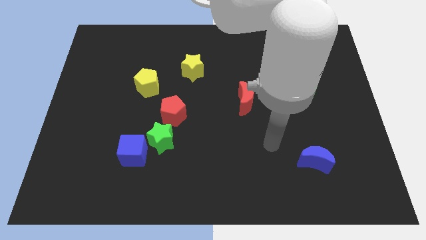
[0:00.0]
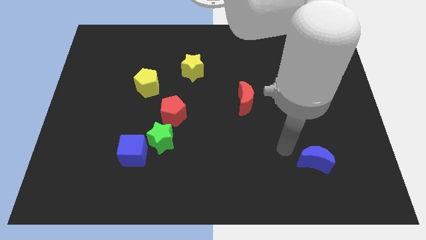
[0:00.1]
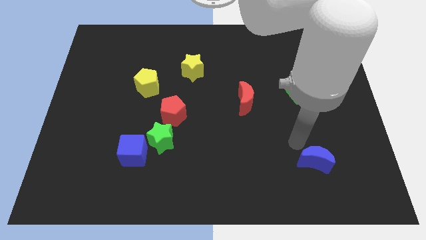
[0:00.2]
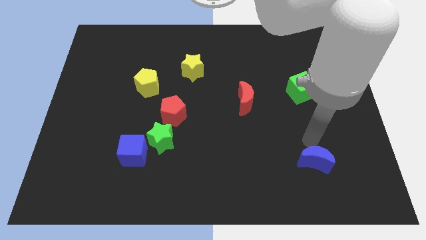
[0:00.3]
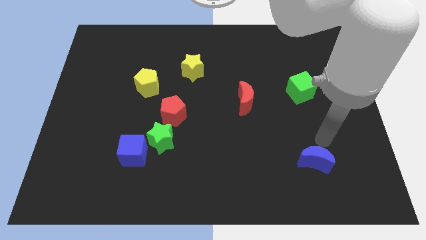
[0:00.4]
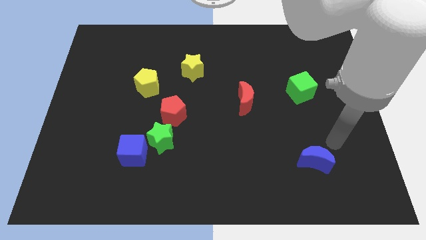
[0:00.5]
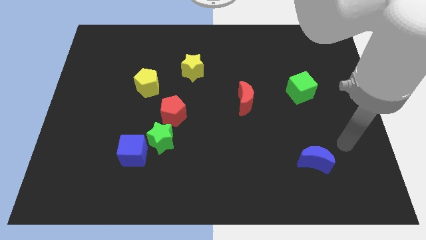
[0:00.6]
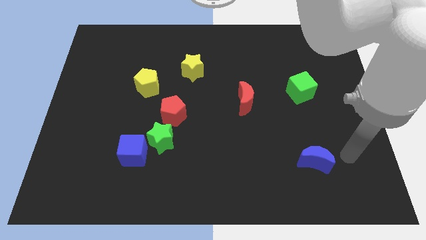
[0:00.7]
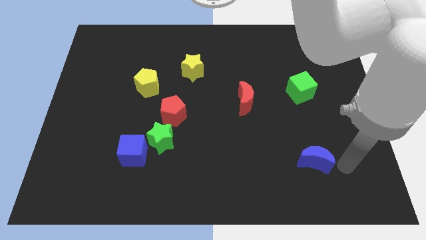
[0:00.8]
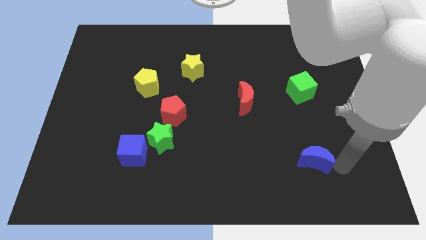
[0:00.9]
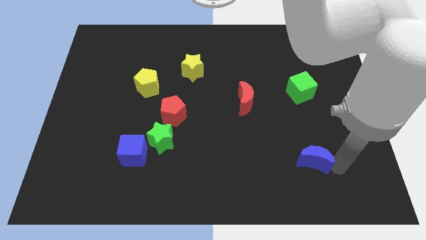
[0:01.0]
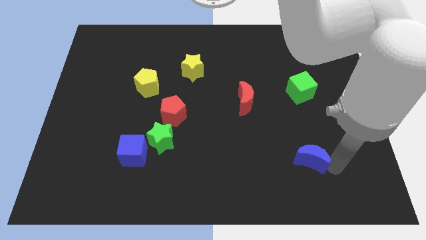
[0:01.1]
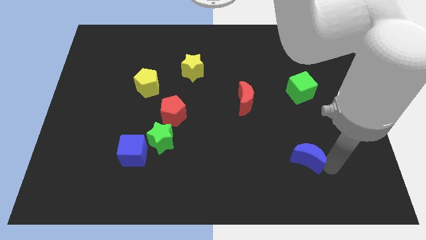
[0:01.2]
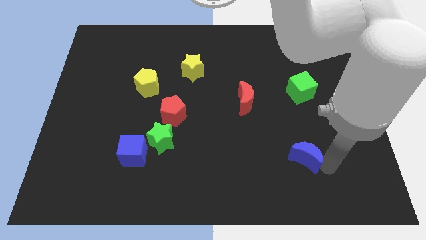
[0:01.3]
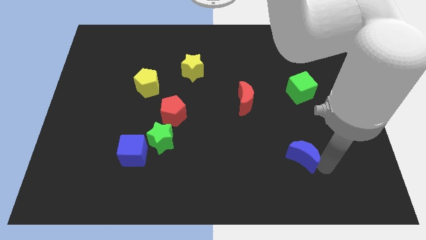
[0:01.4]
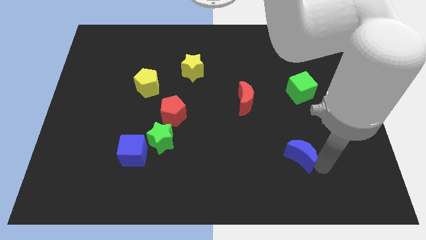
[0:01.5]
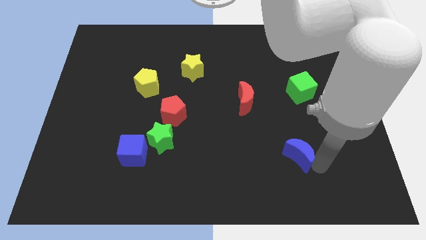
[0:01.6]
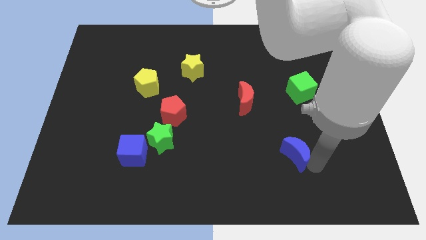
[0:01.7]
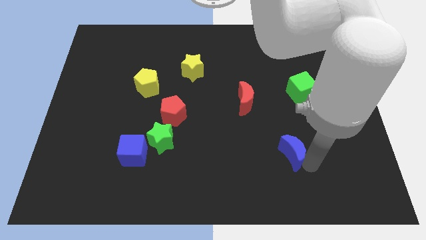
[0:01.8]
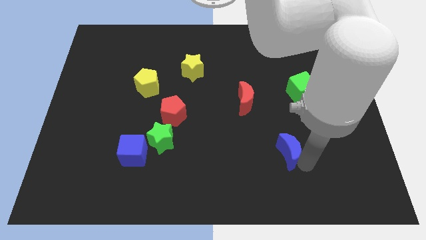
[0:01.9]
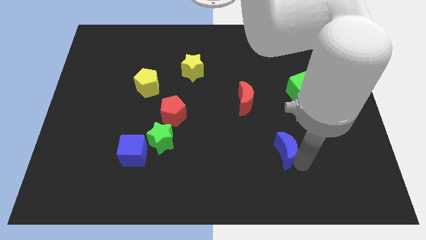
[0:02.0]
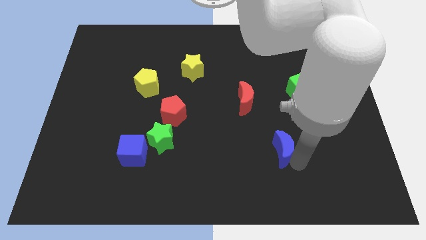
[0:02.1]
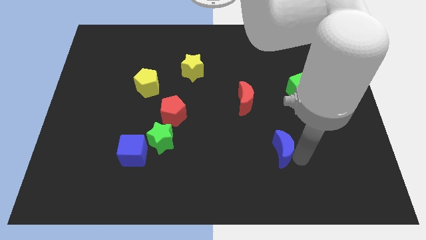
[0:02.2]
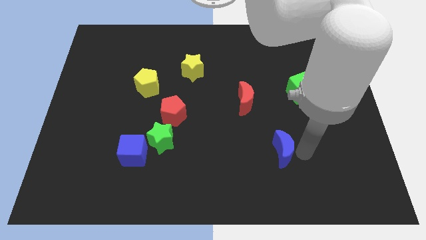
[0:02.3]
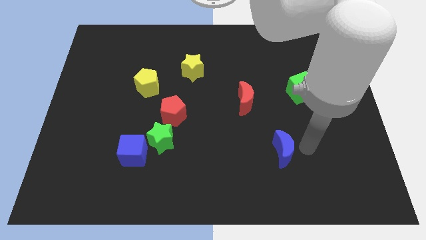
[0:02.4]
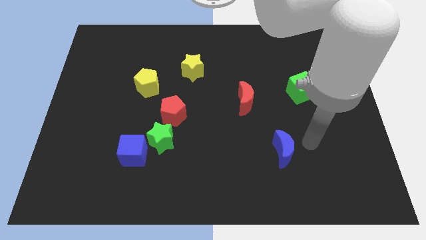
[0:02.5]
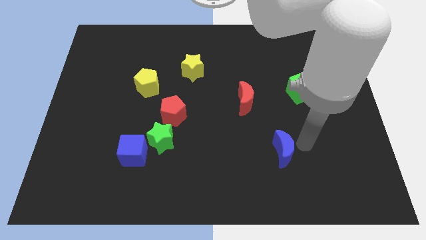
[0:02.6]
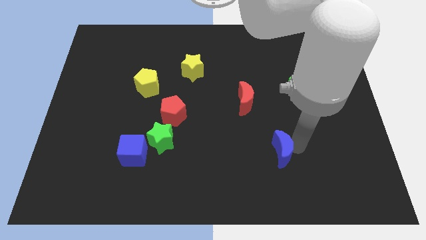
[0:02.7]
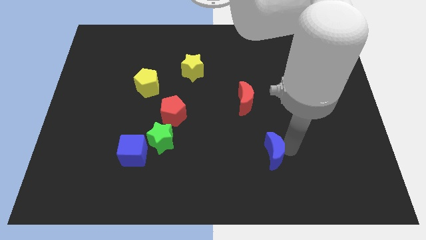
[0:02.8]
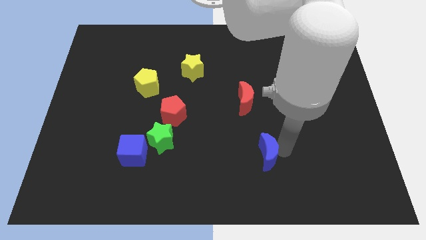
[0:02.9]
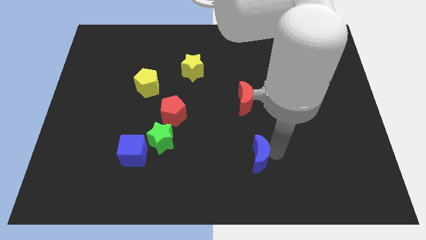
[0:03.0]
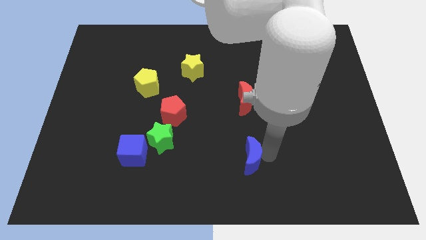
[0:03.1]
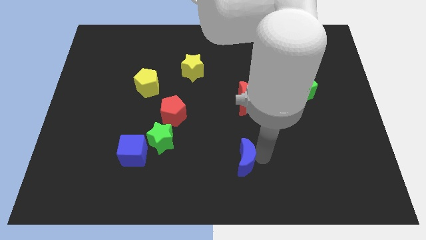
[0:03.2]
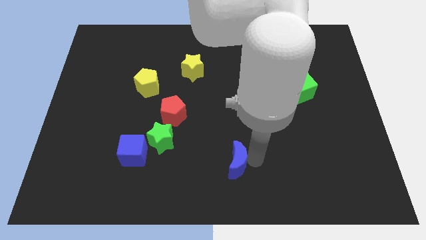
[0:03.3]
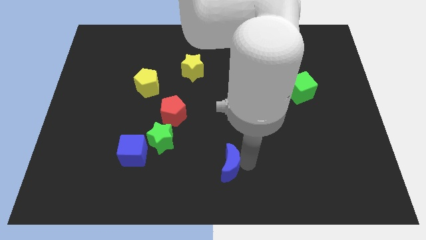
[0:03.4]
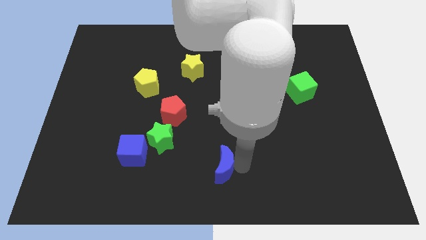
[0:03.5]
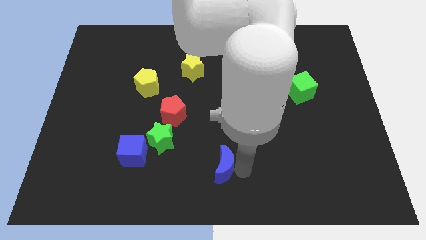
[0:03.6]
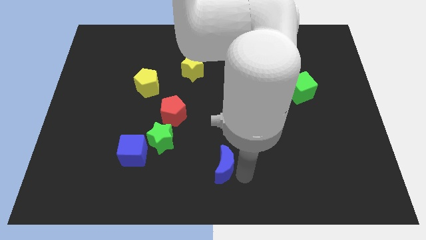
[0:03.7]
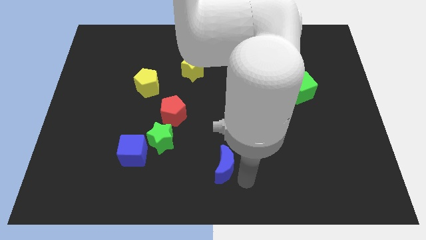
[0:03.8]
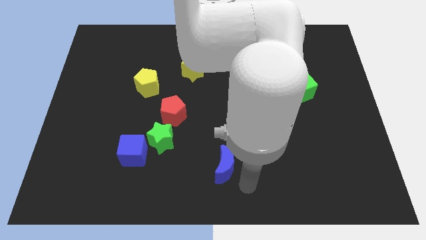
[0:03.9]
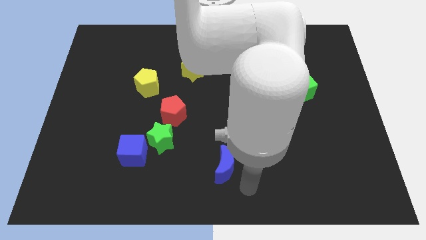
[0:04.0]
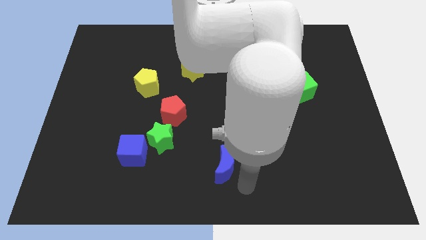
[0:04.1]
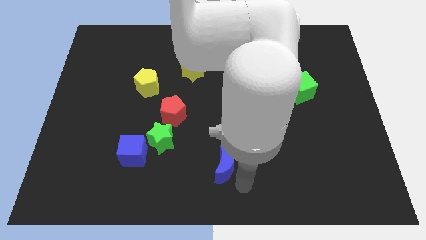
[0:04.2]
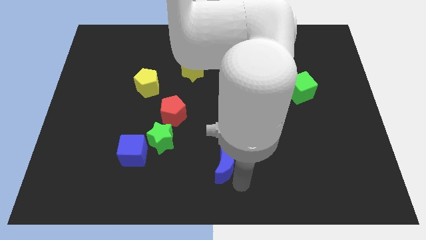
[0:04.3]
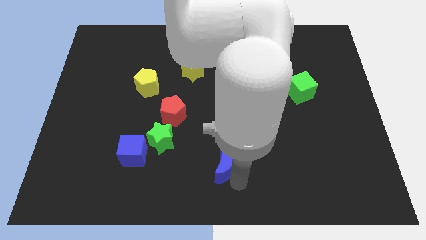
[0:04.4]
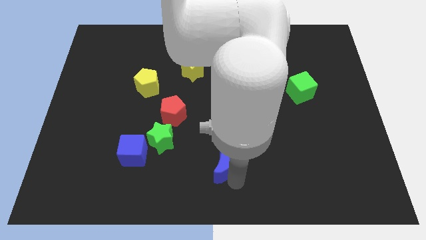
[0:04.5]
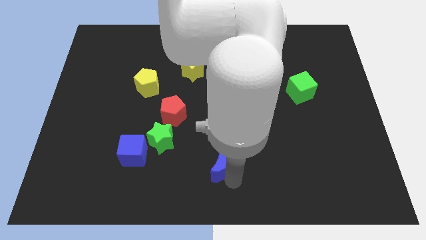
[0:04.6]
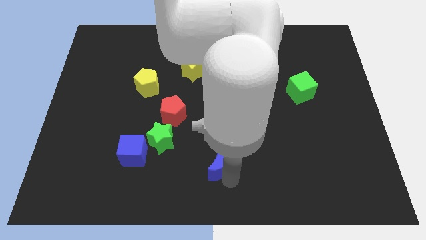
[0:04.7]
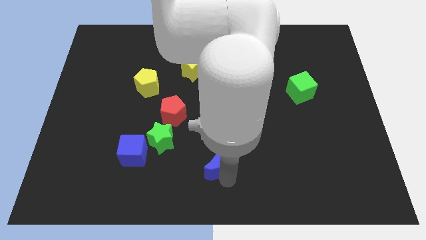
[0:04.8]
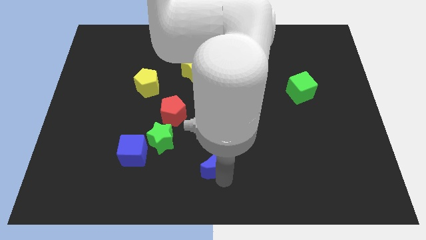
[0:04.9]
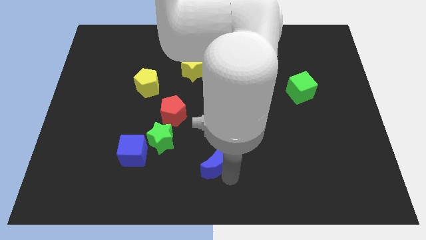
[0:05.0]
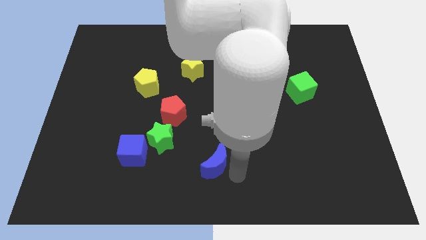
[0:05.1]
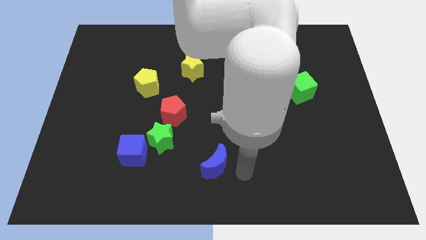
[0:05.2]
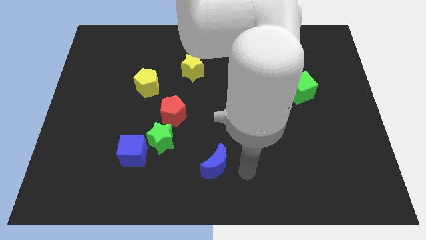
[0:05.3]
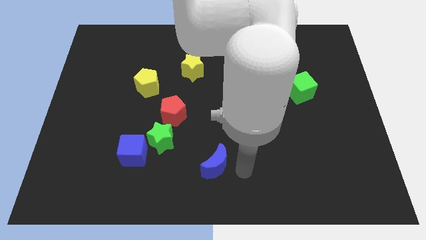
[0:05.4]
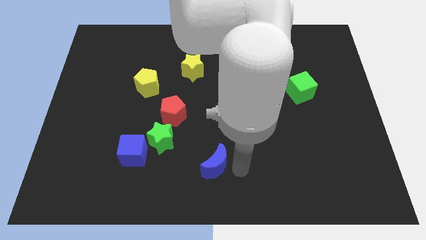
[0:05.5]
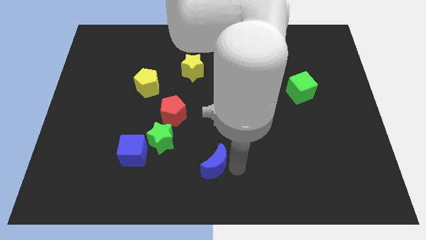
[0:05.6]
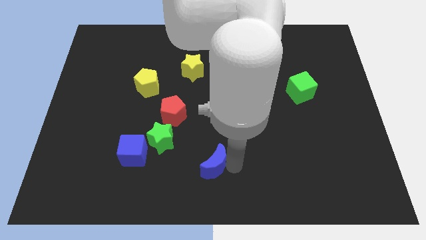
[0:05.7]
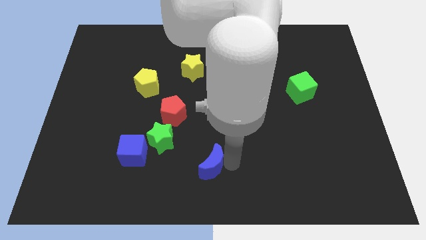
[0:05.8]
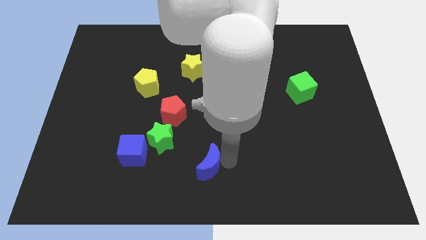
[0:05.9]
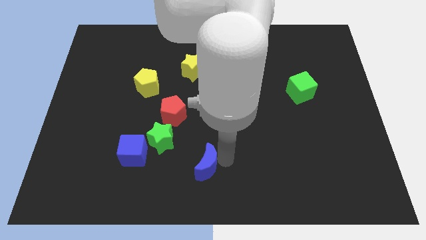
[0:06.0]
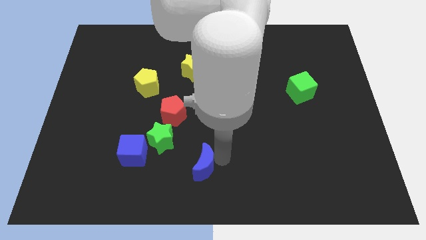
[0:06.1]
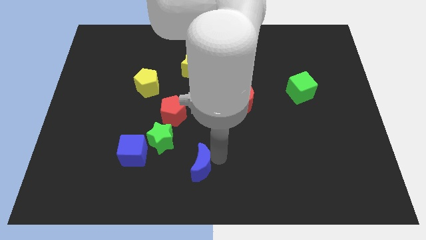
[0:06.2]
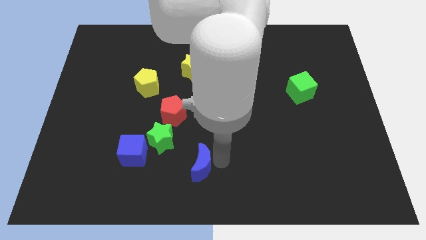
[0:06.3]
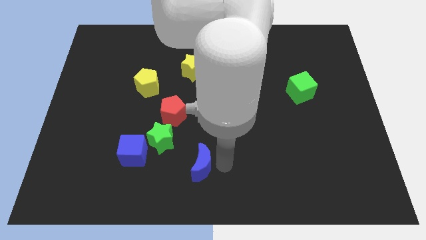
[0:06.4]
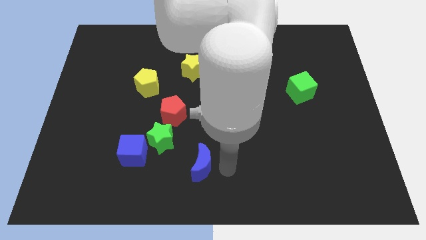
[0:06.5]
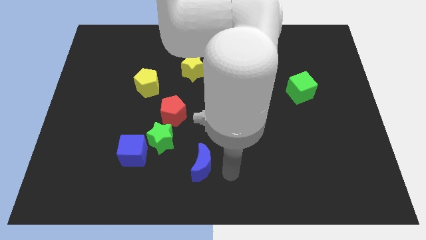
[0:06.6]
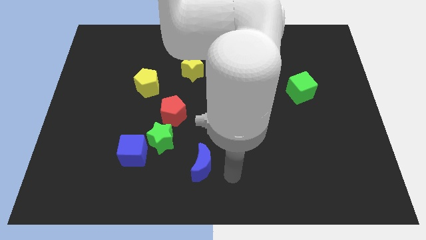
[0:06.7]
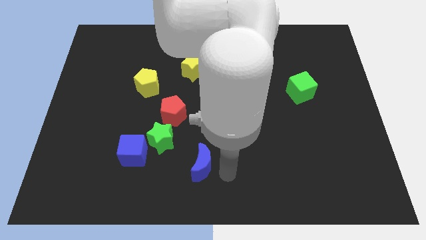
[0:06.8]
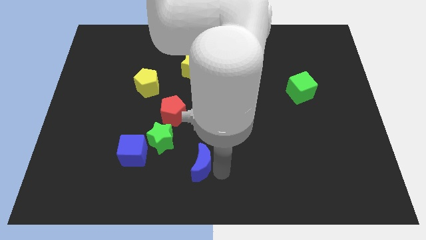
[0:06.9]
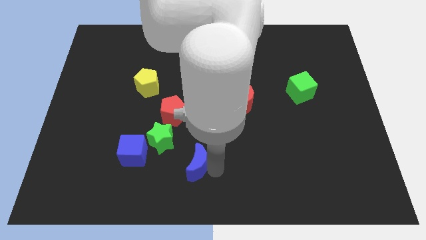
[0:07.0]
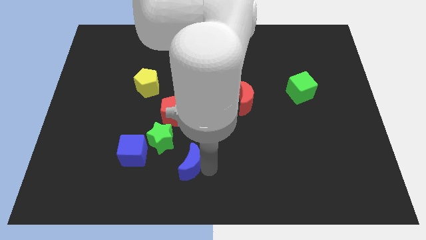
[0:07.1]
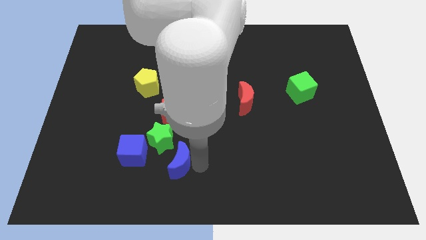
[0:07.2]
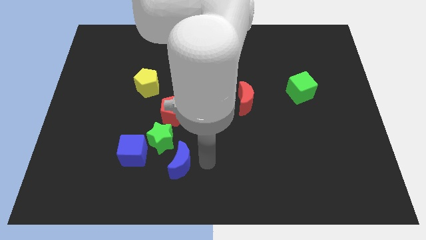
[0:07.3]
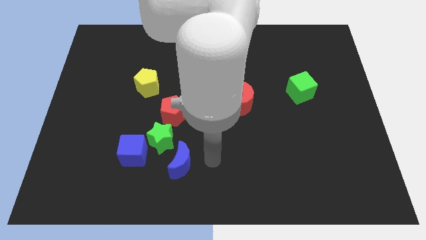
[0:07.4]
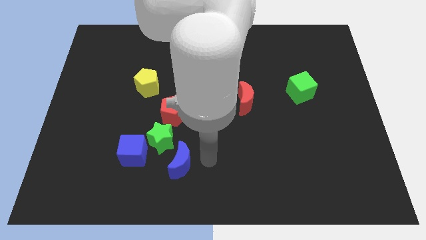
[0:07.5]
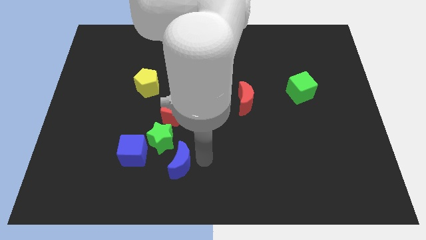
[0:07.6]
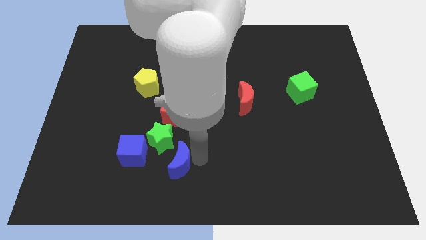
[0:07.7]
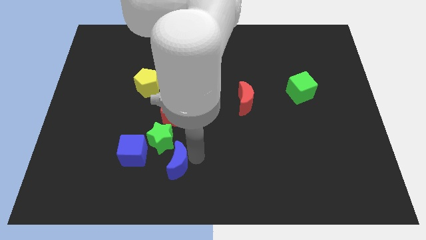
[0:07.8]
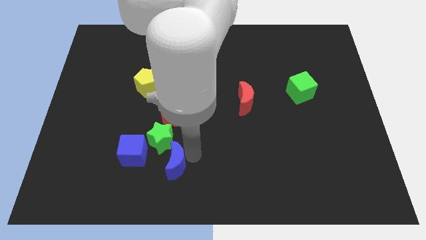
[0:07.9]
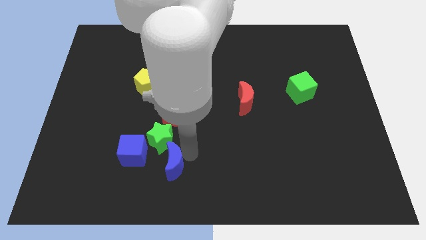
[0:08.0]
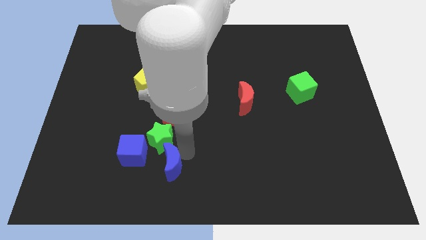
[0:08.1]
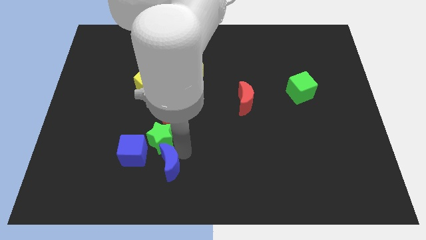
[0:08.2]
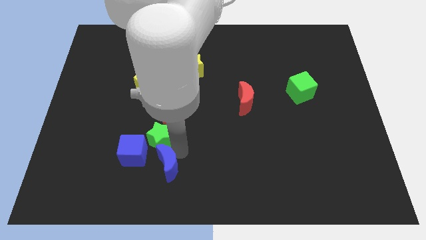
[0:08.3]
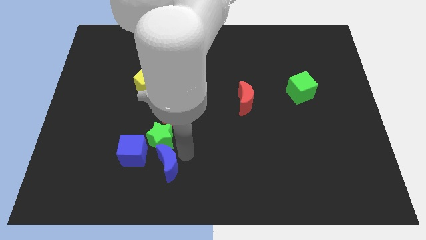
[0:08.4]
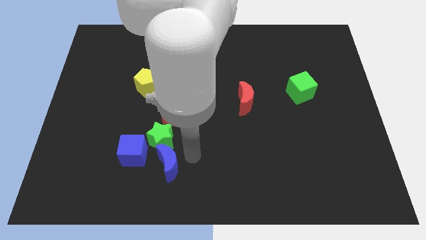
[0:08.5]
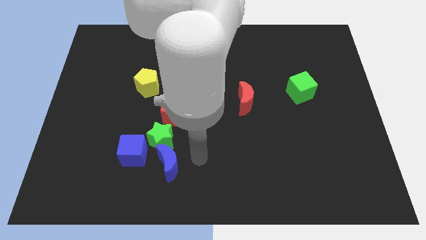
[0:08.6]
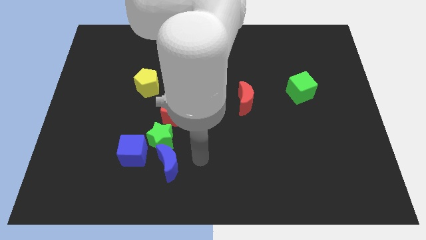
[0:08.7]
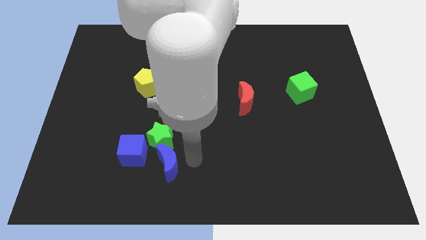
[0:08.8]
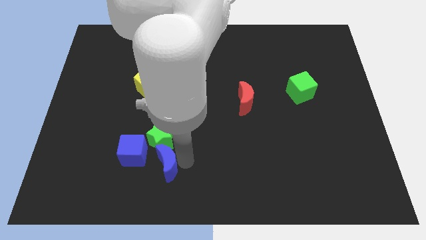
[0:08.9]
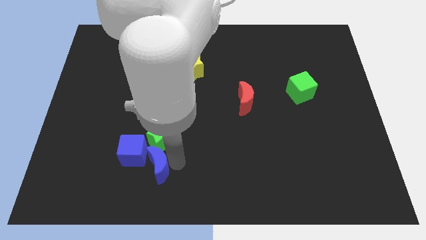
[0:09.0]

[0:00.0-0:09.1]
push the blue moon diagonally down and to the left of the green star
